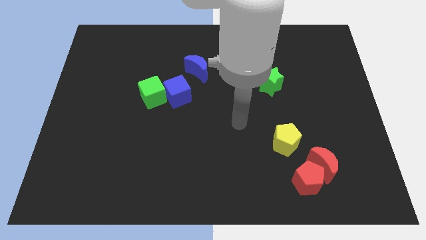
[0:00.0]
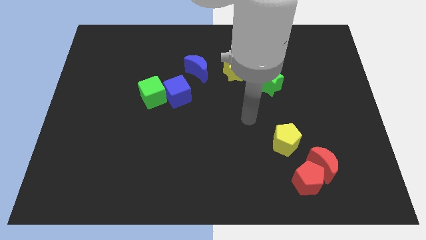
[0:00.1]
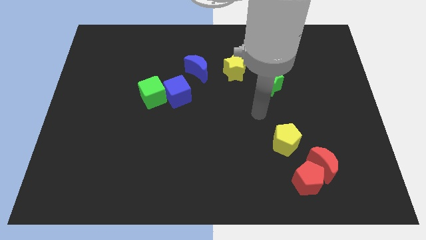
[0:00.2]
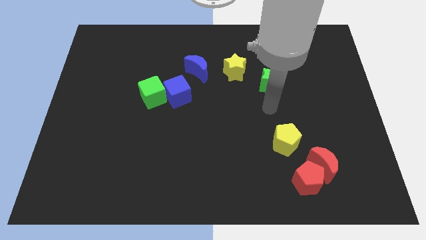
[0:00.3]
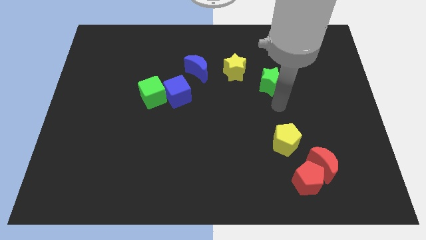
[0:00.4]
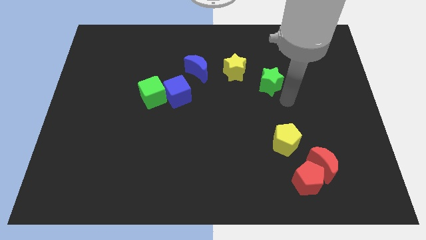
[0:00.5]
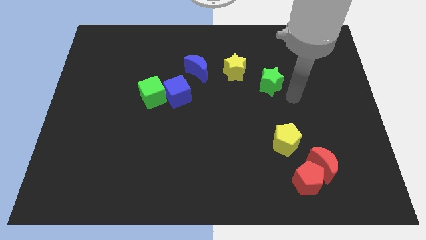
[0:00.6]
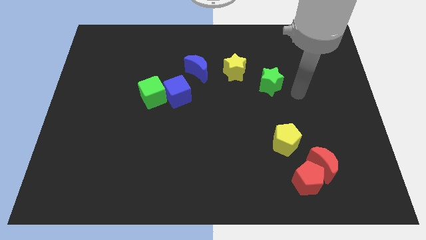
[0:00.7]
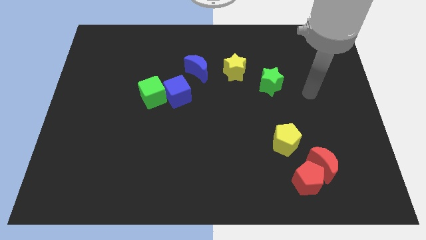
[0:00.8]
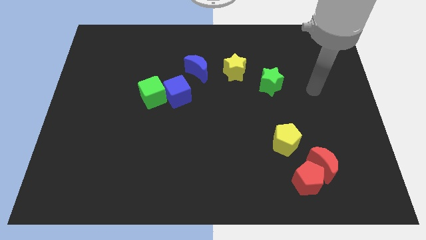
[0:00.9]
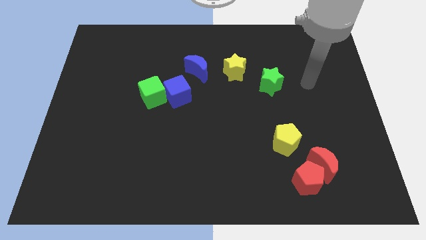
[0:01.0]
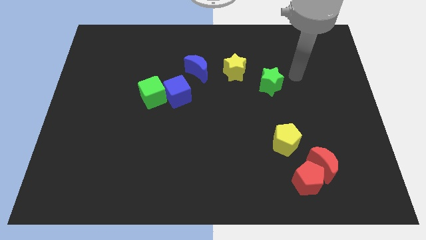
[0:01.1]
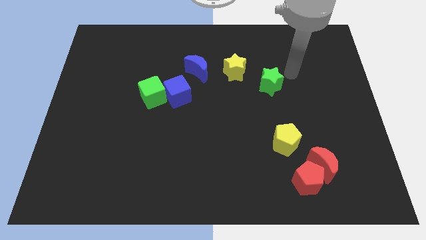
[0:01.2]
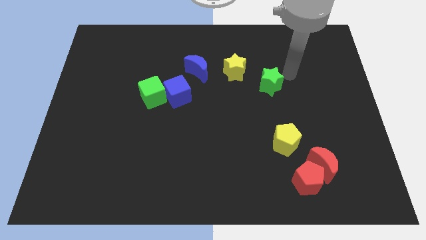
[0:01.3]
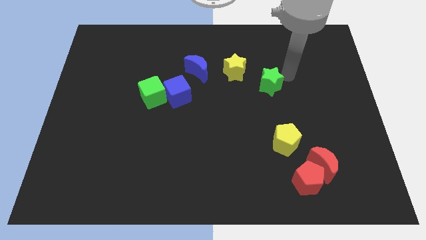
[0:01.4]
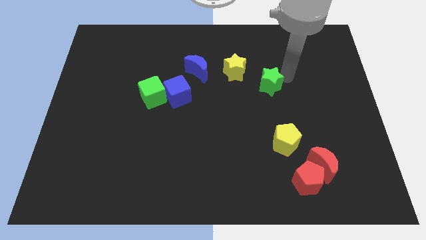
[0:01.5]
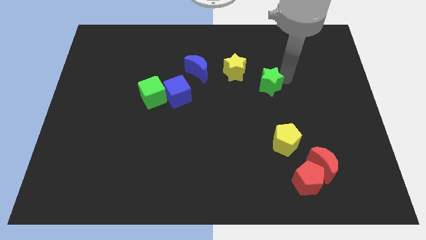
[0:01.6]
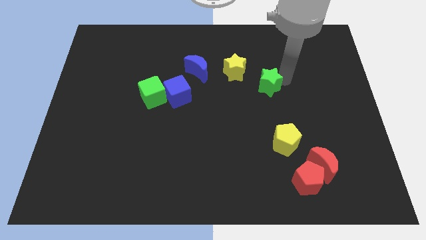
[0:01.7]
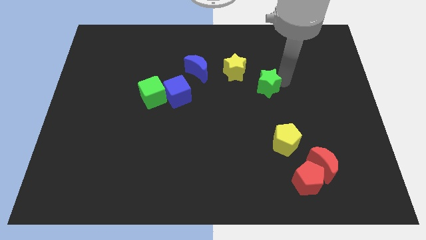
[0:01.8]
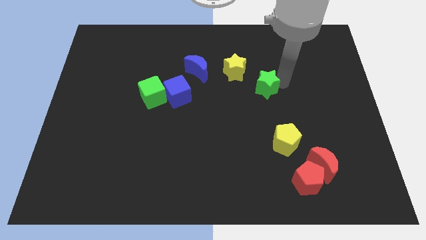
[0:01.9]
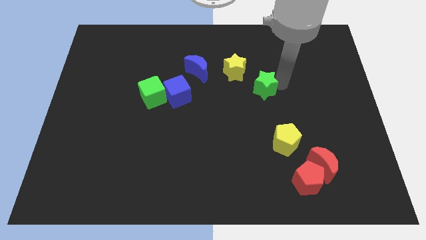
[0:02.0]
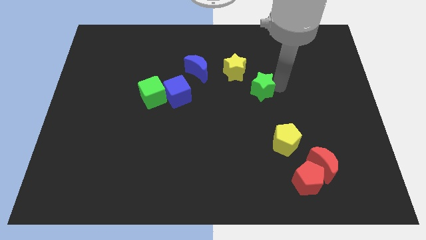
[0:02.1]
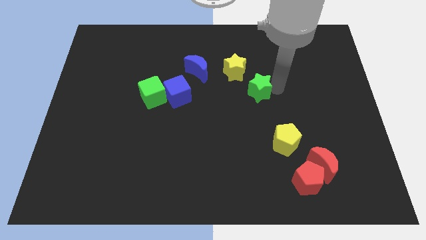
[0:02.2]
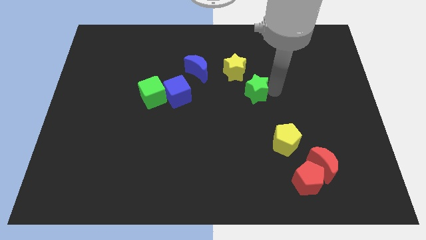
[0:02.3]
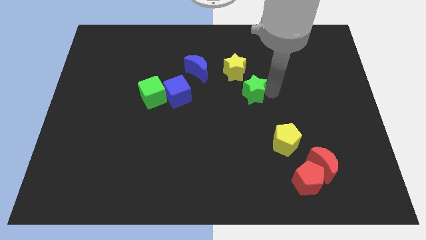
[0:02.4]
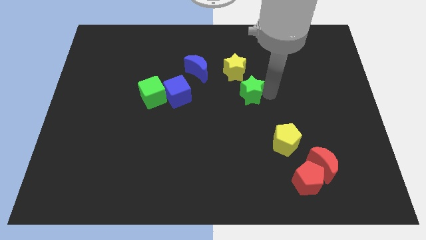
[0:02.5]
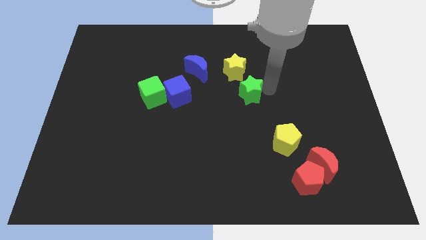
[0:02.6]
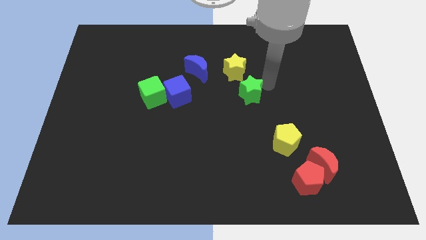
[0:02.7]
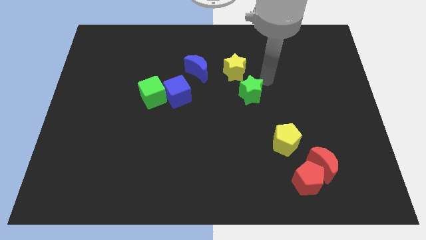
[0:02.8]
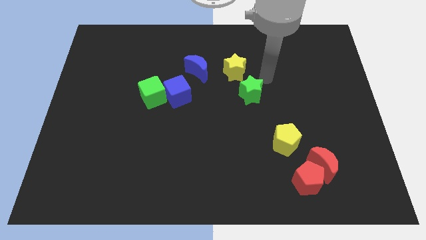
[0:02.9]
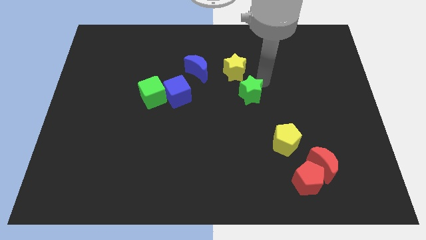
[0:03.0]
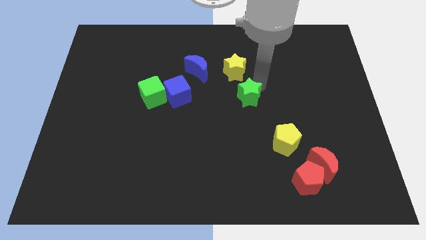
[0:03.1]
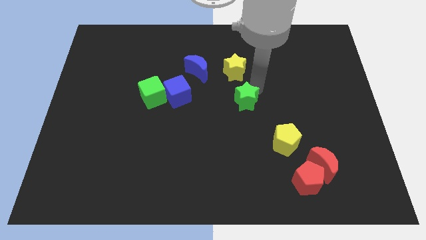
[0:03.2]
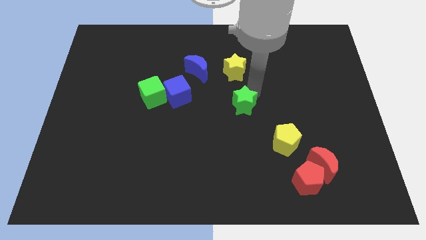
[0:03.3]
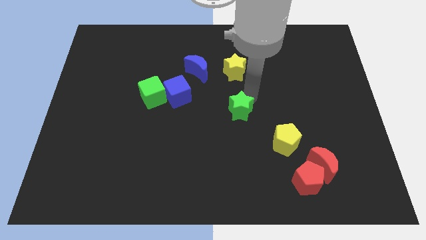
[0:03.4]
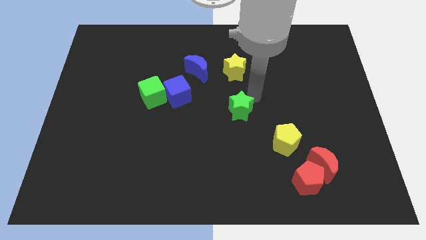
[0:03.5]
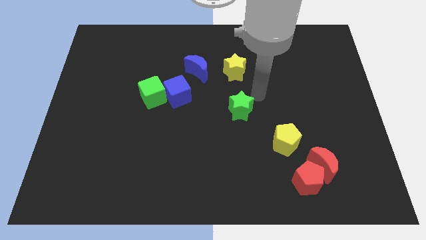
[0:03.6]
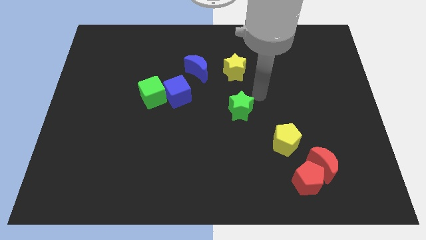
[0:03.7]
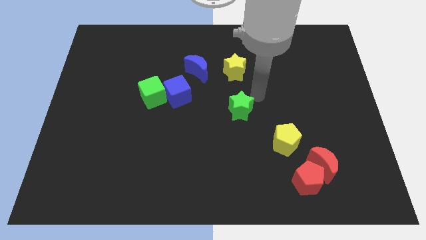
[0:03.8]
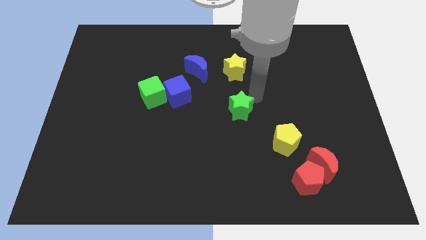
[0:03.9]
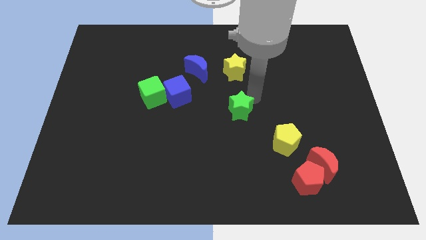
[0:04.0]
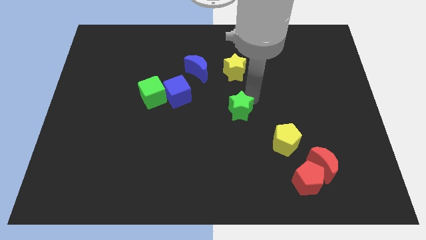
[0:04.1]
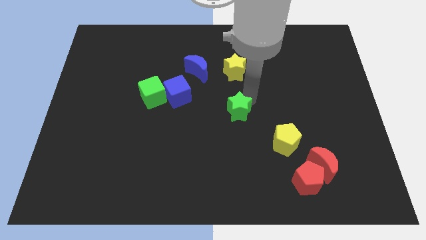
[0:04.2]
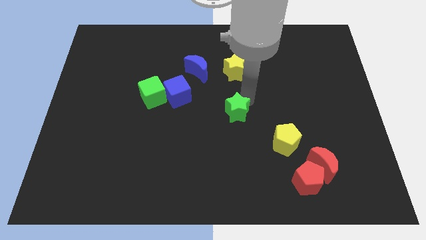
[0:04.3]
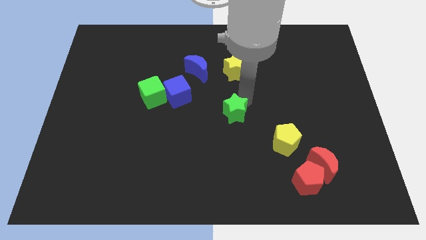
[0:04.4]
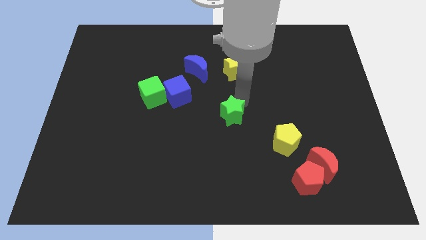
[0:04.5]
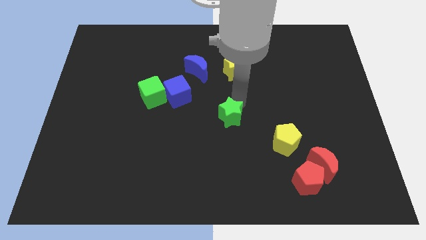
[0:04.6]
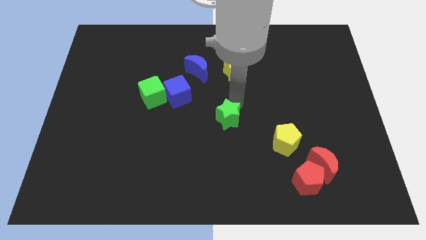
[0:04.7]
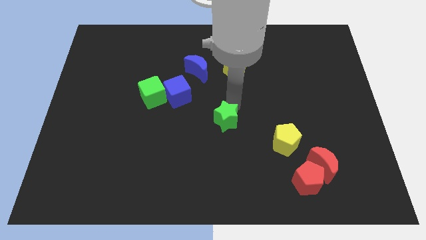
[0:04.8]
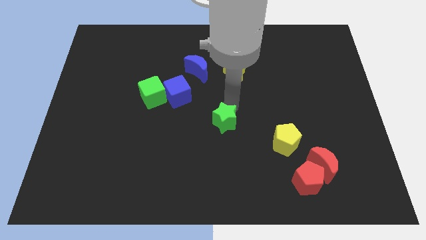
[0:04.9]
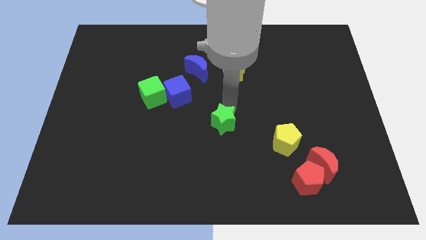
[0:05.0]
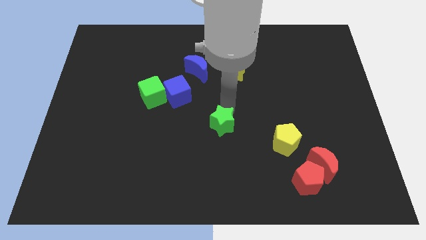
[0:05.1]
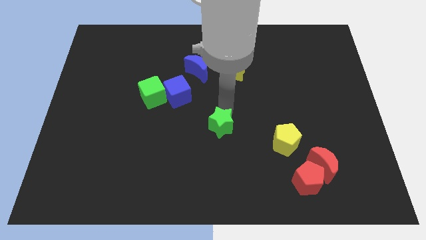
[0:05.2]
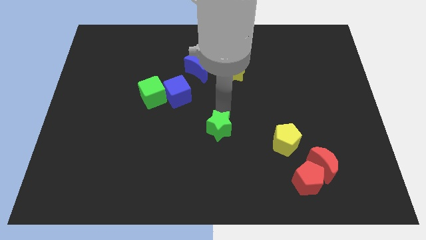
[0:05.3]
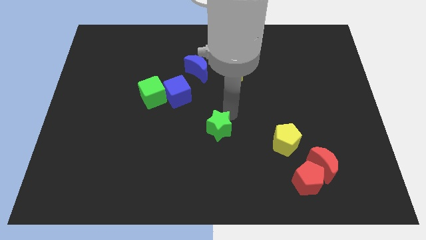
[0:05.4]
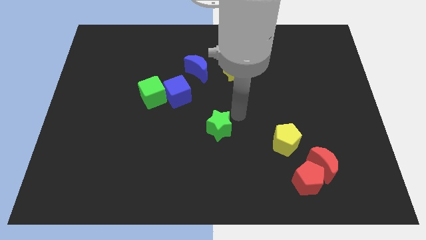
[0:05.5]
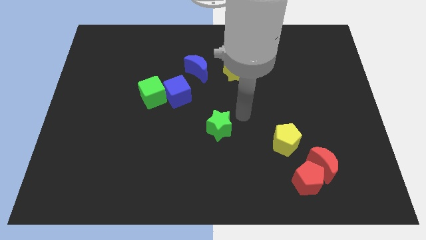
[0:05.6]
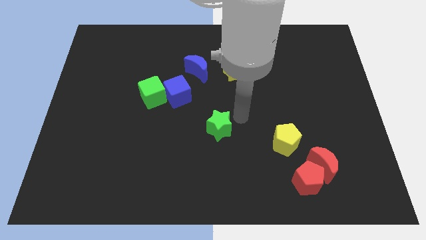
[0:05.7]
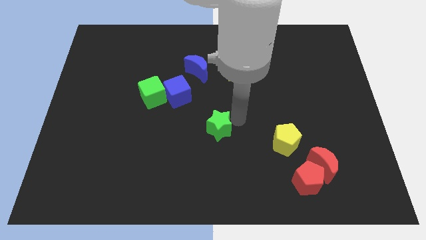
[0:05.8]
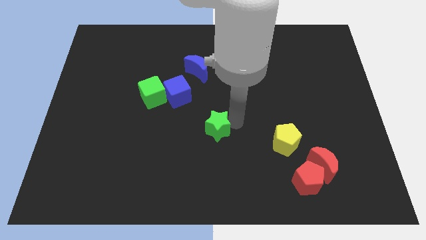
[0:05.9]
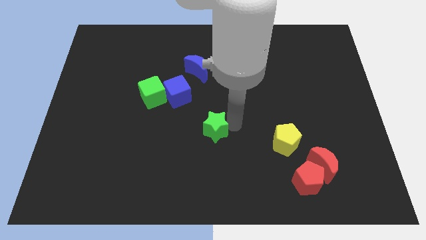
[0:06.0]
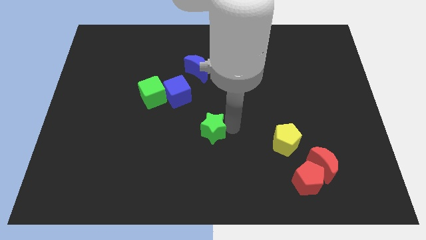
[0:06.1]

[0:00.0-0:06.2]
move the green star down and to the left

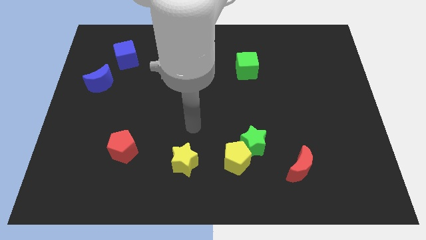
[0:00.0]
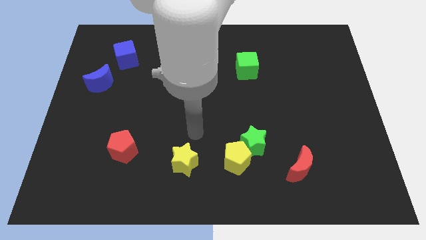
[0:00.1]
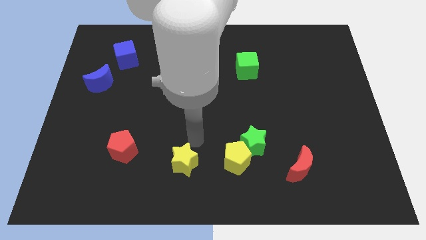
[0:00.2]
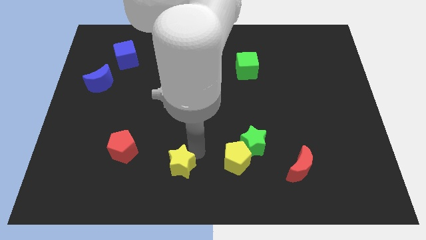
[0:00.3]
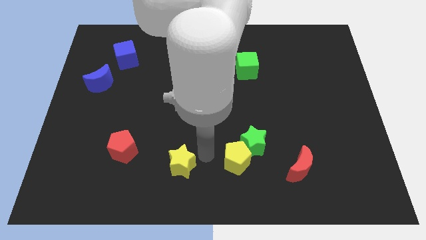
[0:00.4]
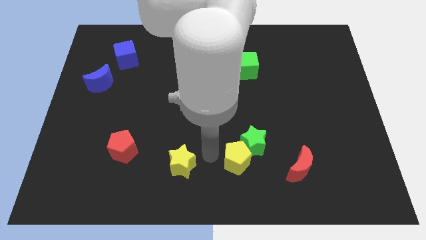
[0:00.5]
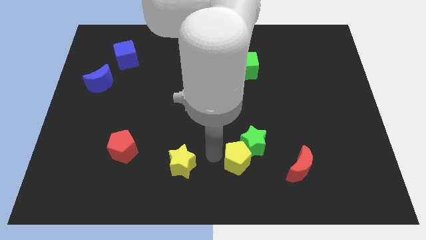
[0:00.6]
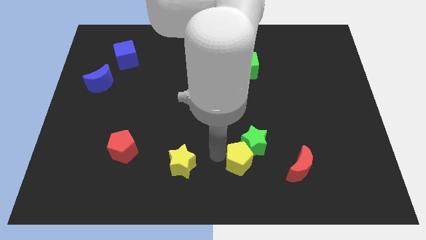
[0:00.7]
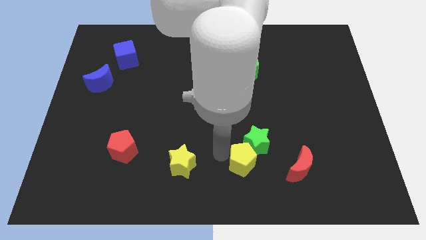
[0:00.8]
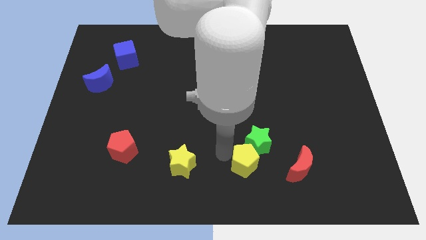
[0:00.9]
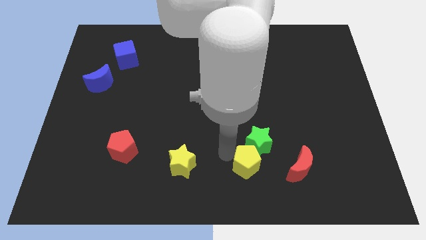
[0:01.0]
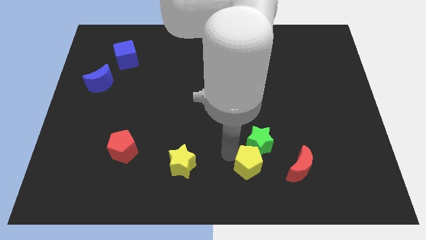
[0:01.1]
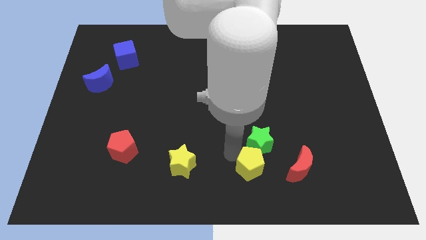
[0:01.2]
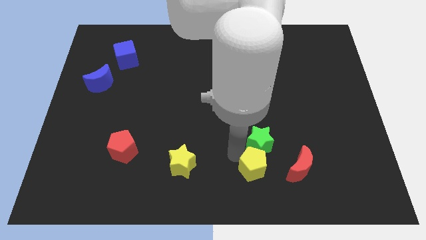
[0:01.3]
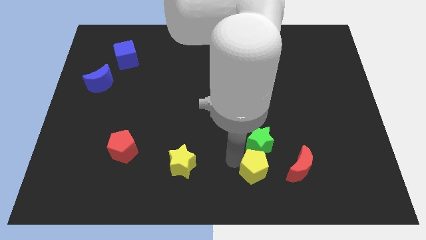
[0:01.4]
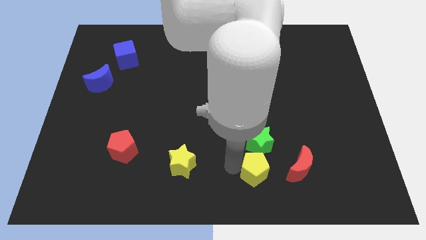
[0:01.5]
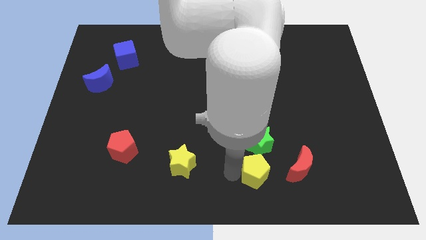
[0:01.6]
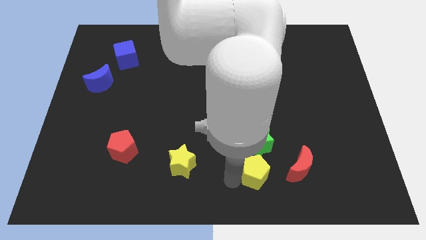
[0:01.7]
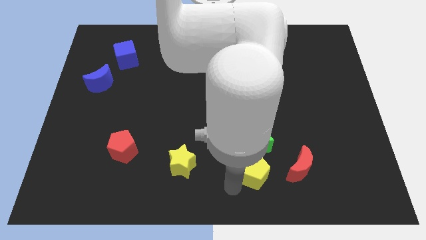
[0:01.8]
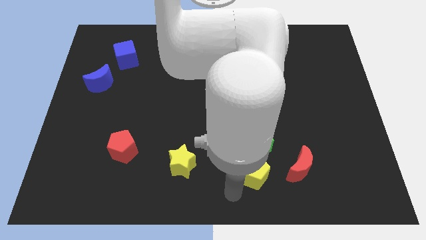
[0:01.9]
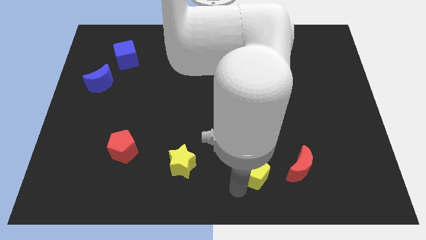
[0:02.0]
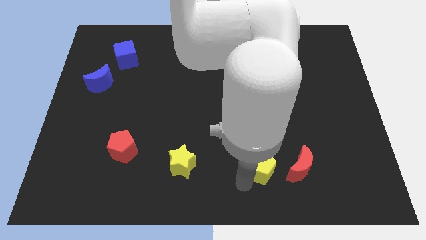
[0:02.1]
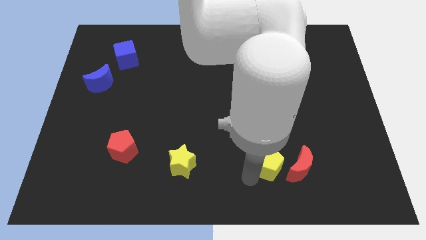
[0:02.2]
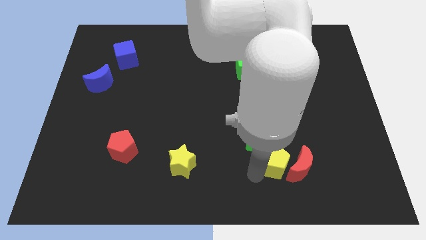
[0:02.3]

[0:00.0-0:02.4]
move the yellow pentagon to the right a little
